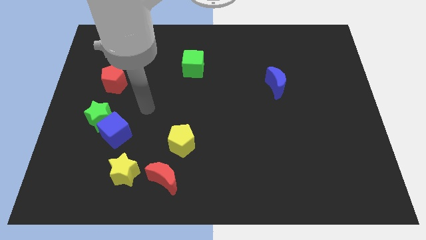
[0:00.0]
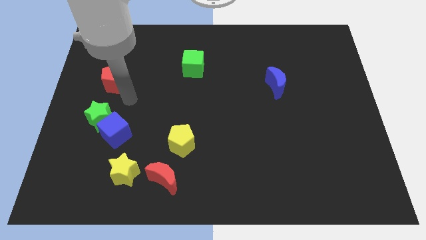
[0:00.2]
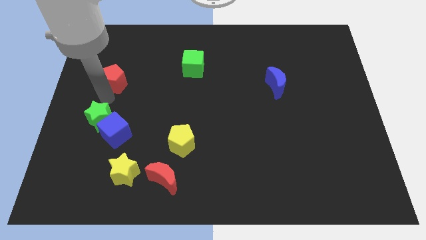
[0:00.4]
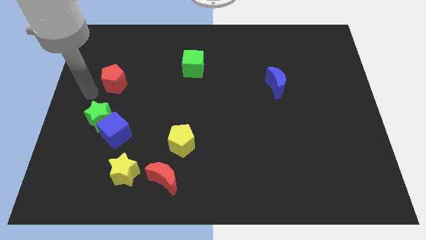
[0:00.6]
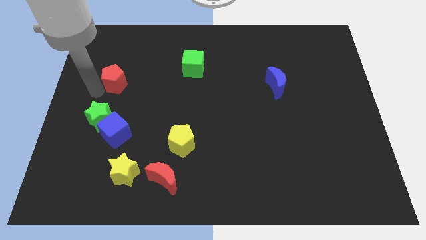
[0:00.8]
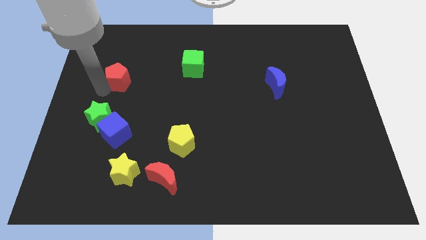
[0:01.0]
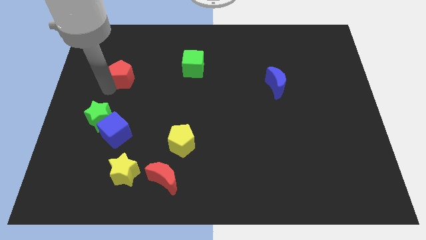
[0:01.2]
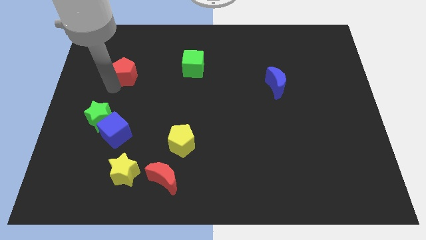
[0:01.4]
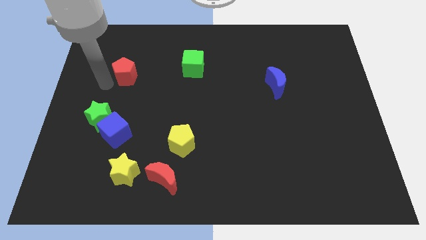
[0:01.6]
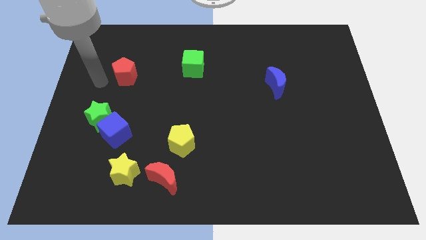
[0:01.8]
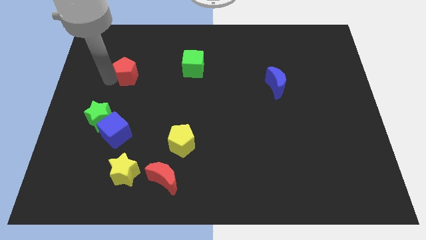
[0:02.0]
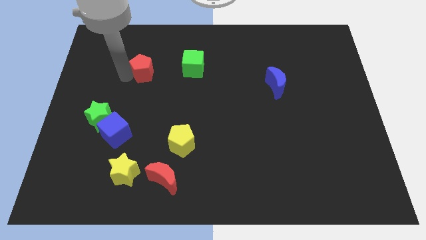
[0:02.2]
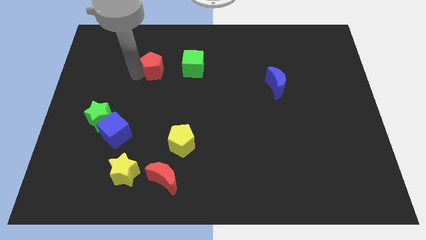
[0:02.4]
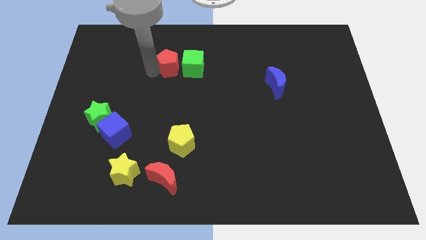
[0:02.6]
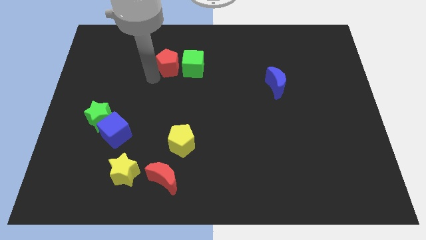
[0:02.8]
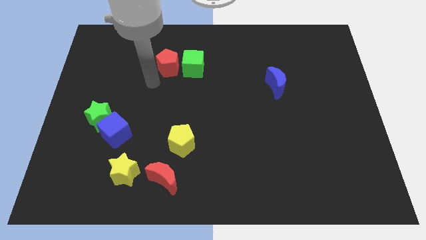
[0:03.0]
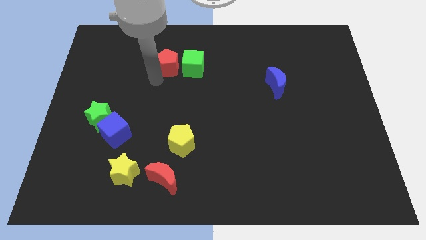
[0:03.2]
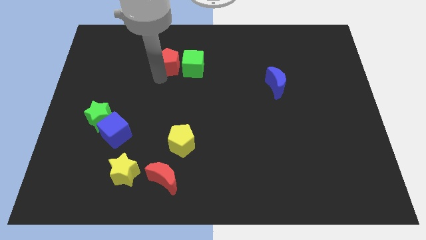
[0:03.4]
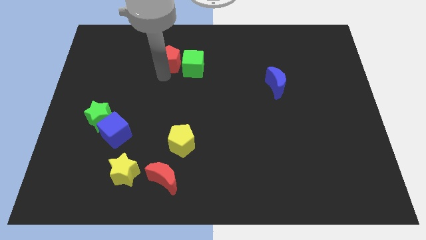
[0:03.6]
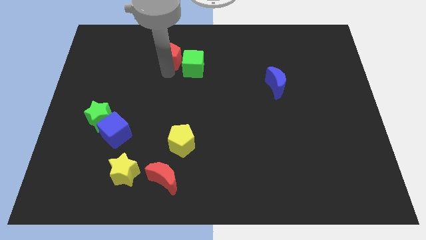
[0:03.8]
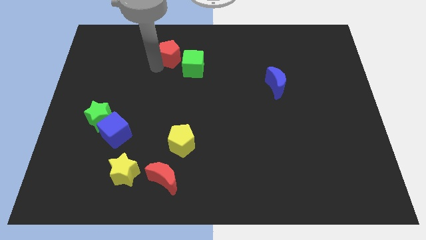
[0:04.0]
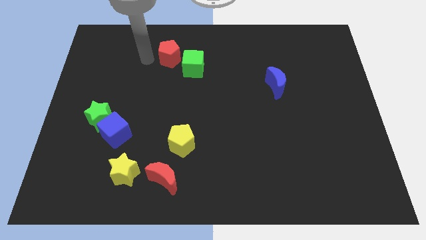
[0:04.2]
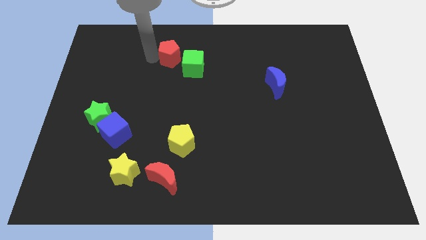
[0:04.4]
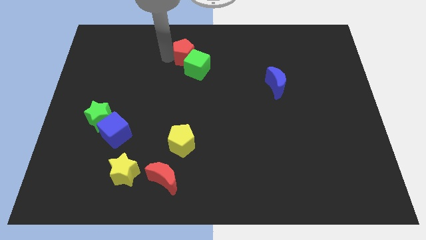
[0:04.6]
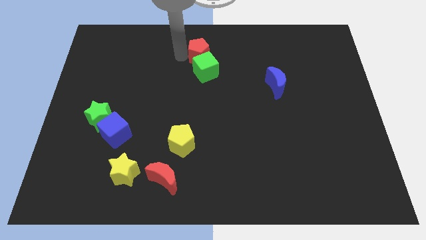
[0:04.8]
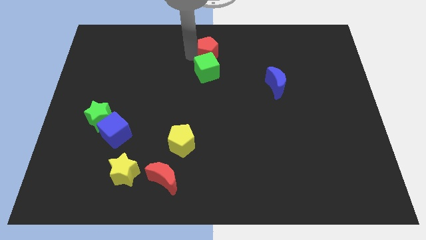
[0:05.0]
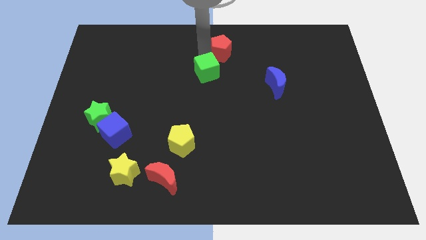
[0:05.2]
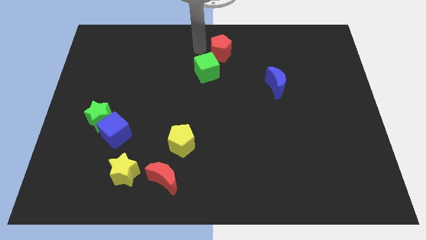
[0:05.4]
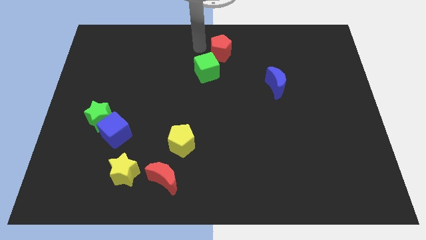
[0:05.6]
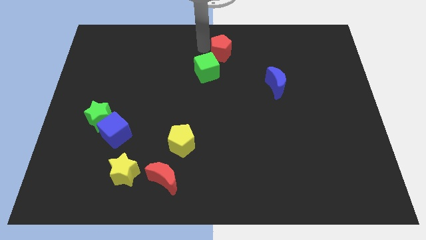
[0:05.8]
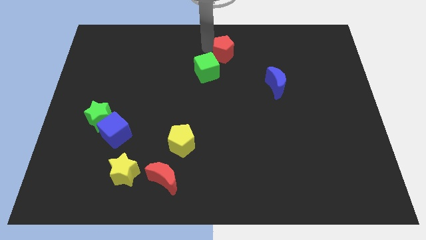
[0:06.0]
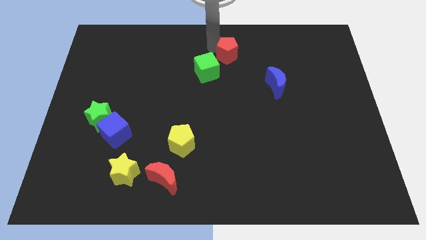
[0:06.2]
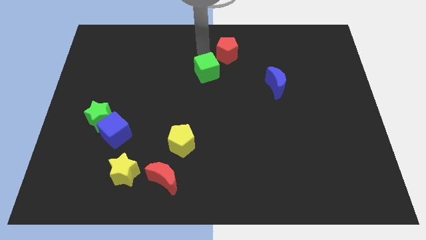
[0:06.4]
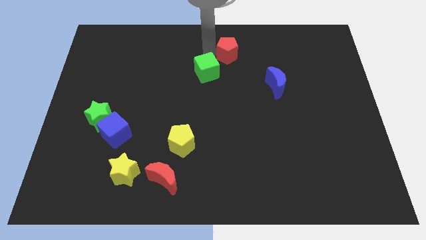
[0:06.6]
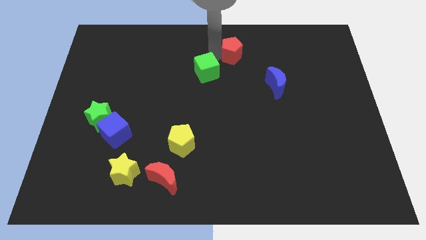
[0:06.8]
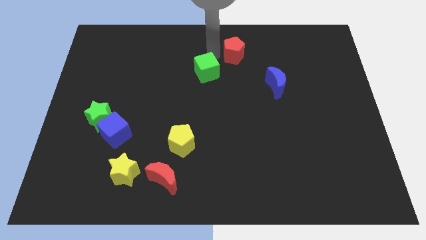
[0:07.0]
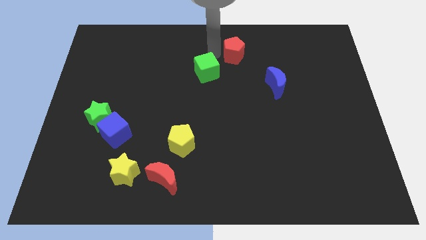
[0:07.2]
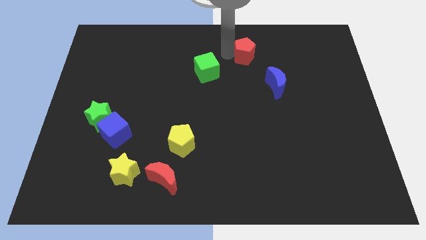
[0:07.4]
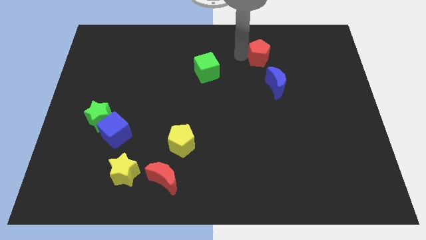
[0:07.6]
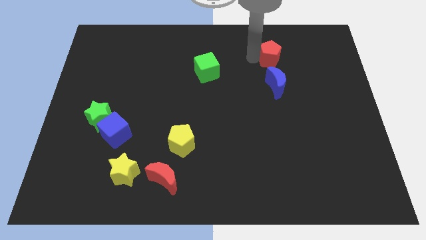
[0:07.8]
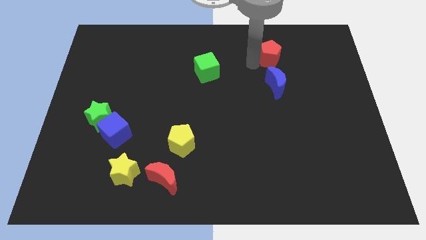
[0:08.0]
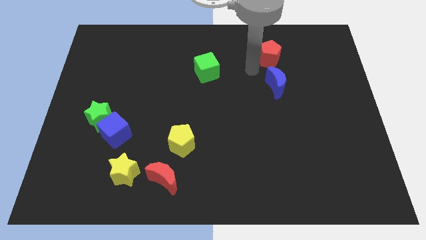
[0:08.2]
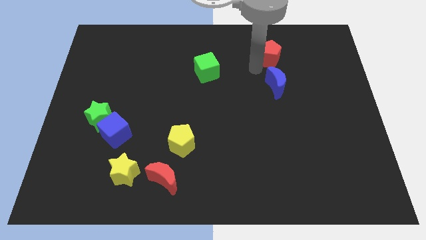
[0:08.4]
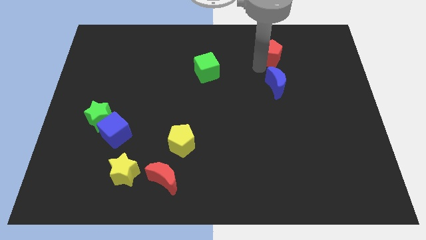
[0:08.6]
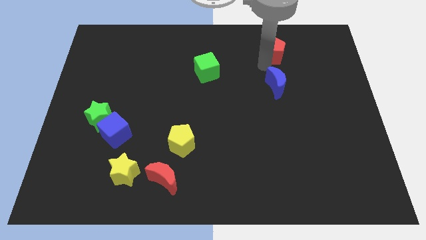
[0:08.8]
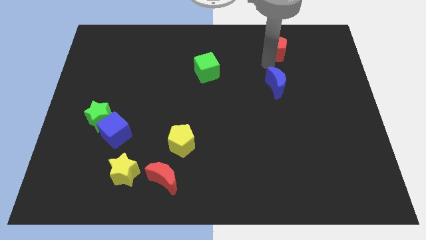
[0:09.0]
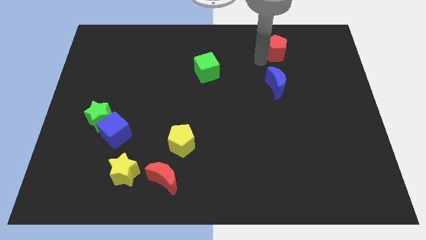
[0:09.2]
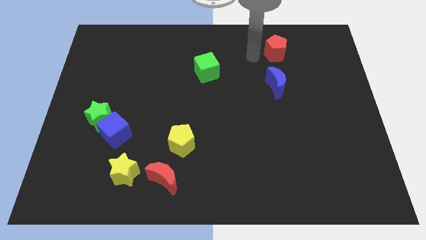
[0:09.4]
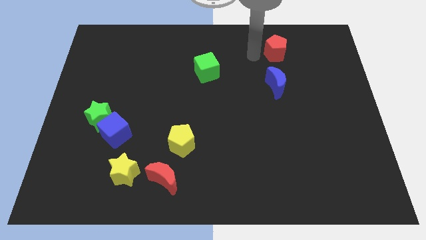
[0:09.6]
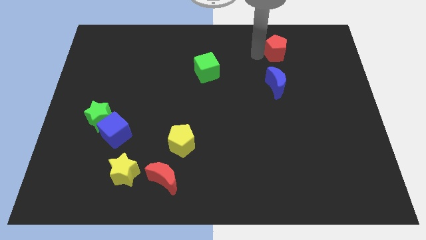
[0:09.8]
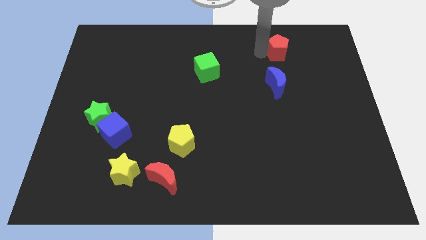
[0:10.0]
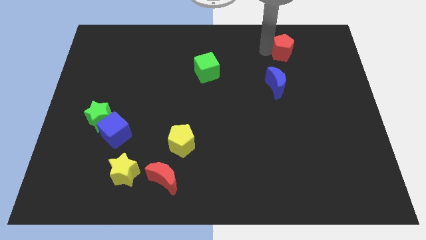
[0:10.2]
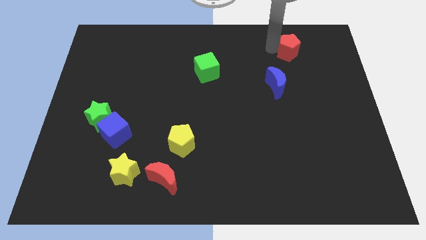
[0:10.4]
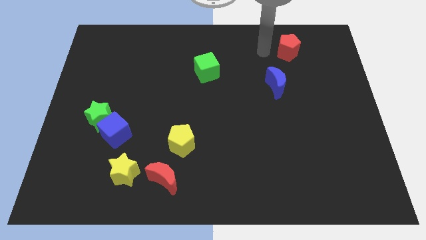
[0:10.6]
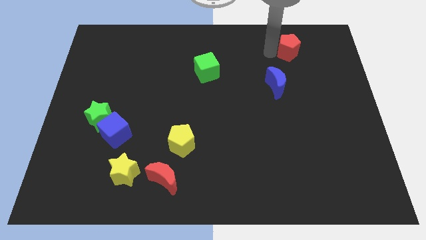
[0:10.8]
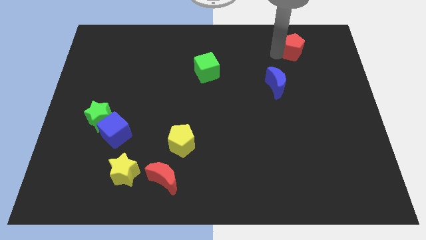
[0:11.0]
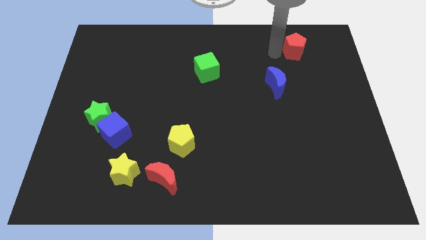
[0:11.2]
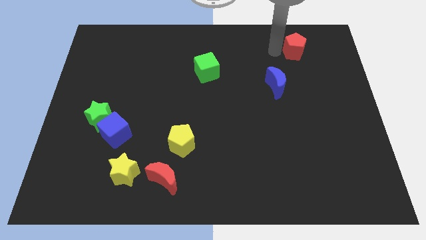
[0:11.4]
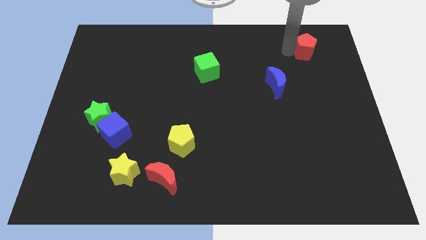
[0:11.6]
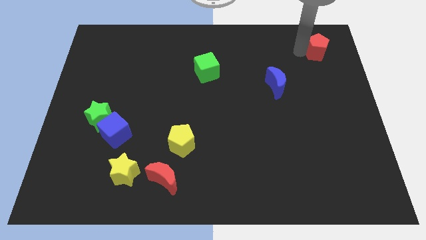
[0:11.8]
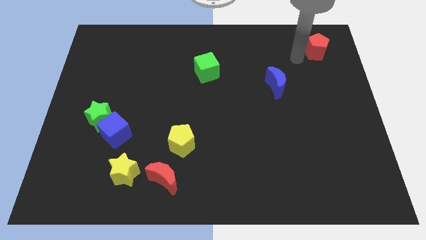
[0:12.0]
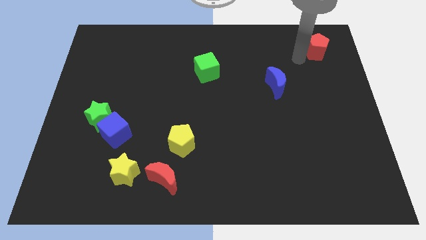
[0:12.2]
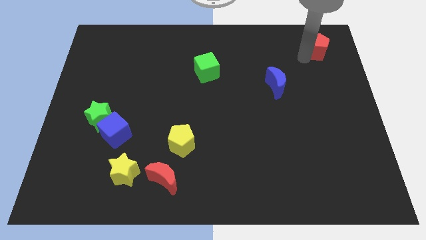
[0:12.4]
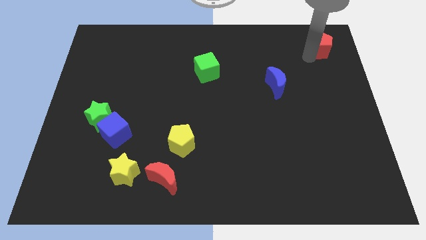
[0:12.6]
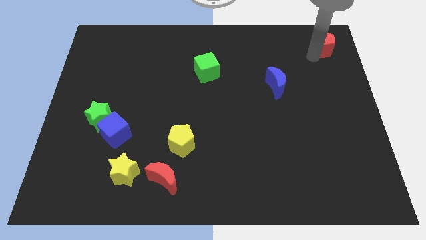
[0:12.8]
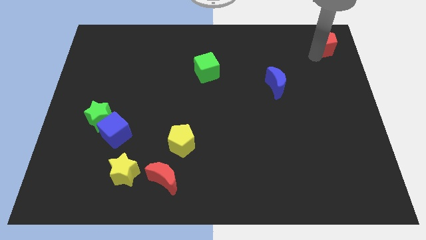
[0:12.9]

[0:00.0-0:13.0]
slide the red pentagon to the top right of the board

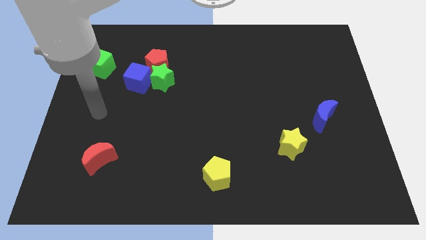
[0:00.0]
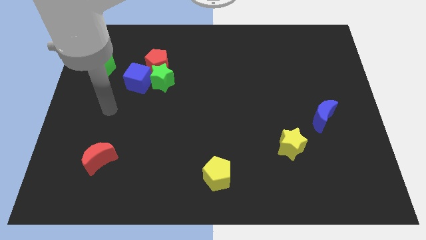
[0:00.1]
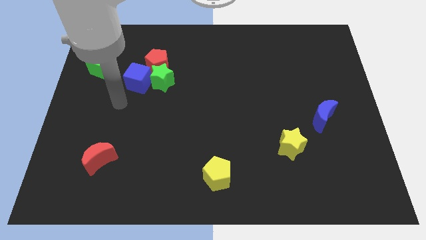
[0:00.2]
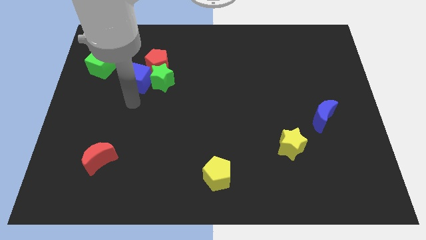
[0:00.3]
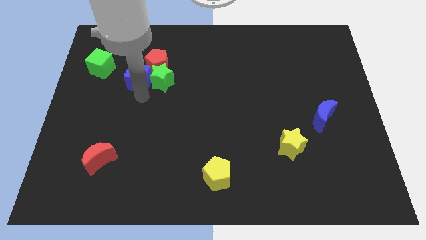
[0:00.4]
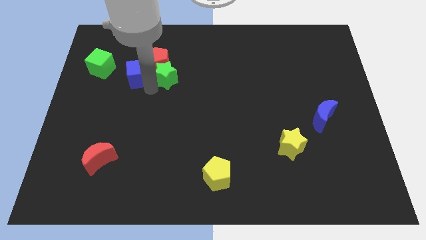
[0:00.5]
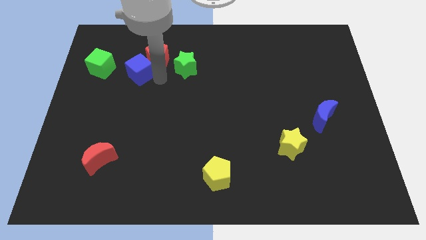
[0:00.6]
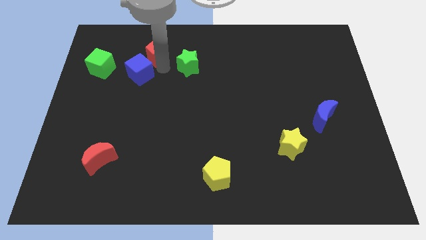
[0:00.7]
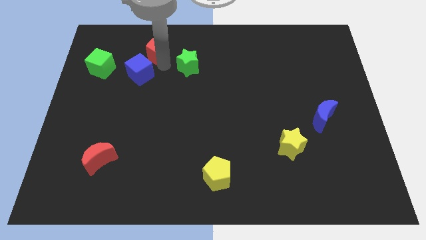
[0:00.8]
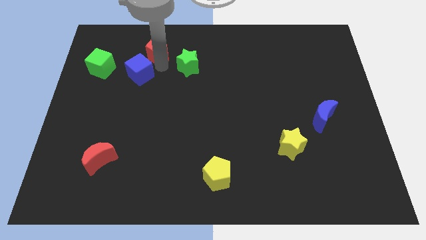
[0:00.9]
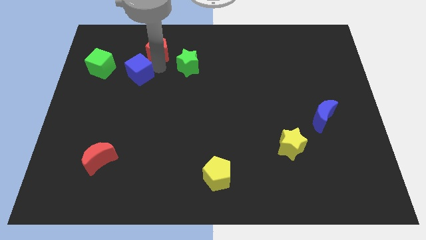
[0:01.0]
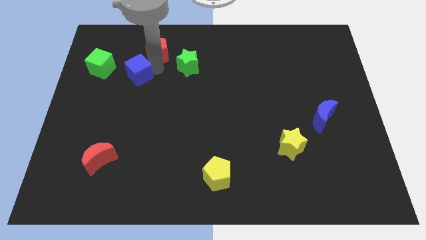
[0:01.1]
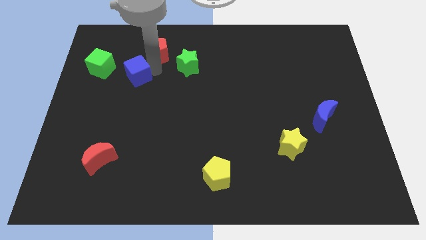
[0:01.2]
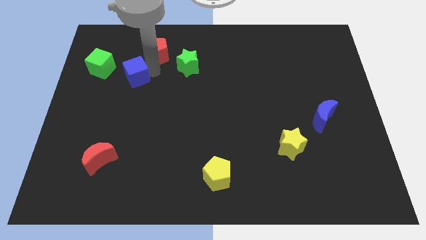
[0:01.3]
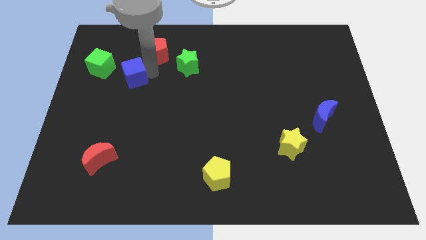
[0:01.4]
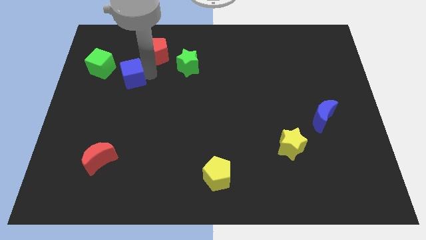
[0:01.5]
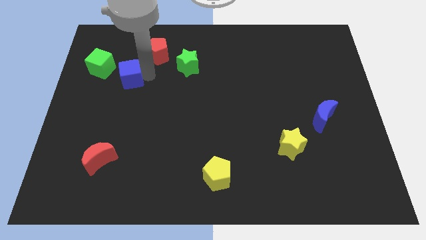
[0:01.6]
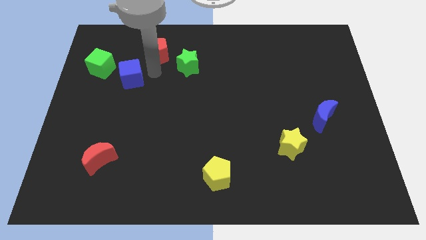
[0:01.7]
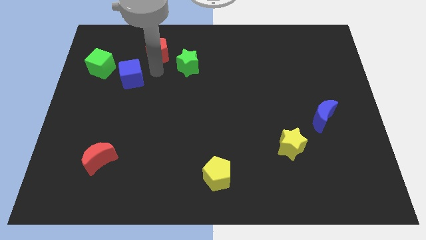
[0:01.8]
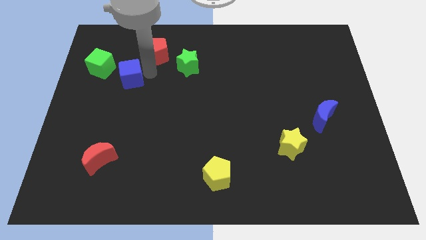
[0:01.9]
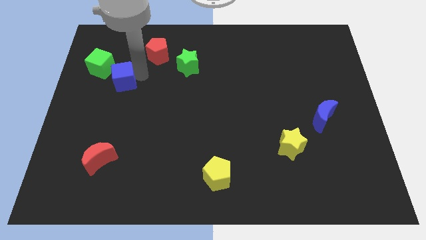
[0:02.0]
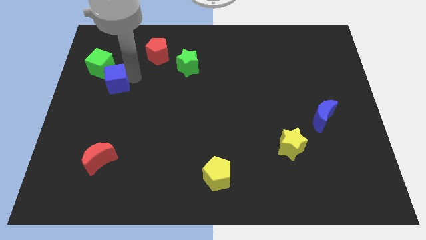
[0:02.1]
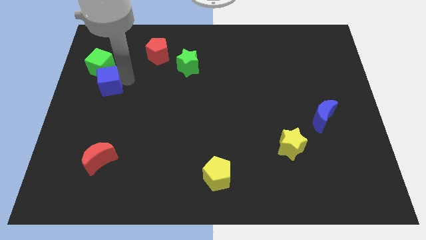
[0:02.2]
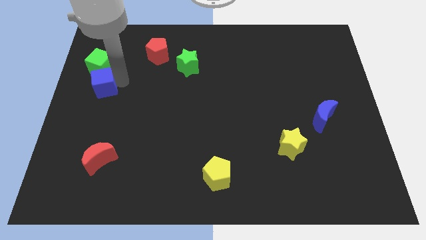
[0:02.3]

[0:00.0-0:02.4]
push the blue cube to the center left
